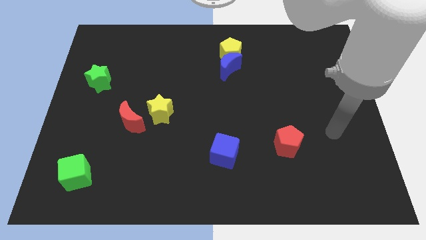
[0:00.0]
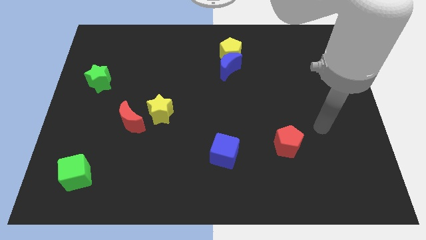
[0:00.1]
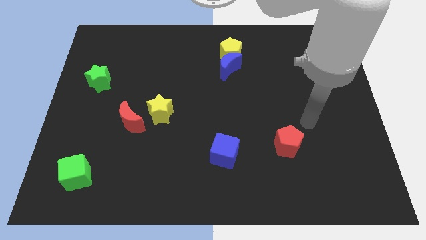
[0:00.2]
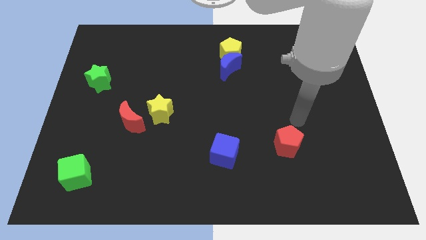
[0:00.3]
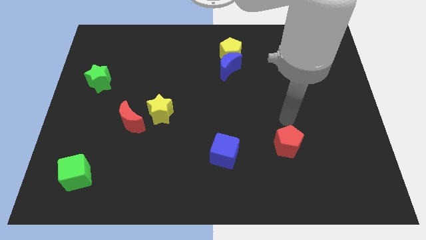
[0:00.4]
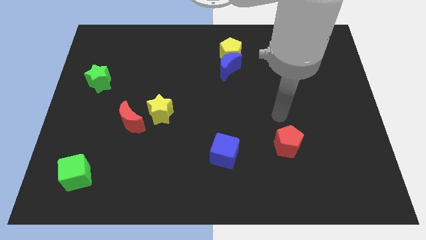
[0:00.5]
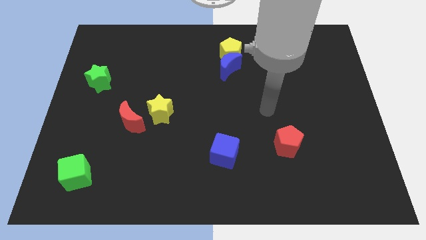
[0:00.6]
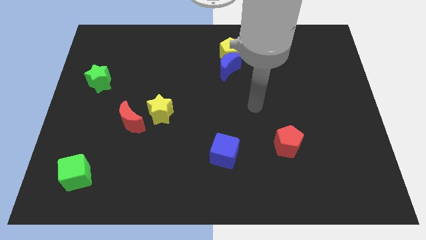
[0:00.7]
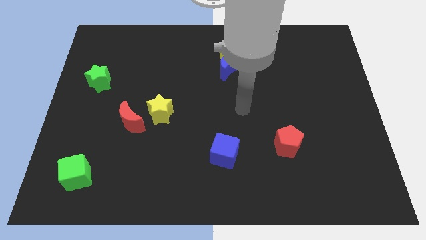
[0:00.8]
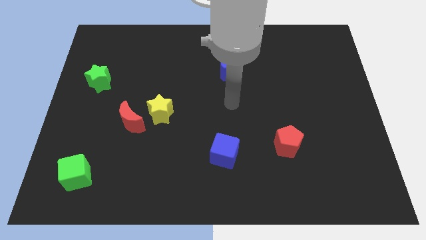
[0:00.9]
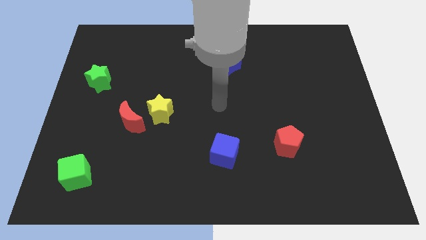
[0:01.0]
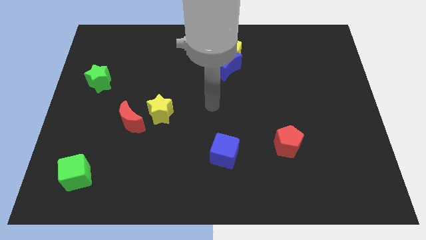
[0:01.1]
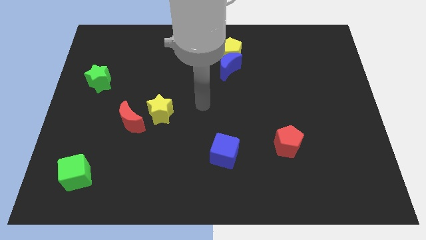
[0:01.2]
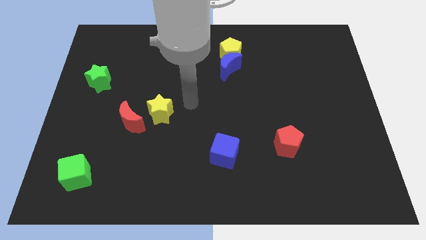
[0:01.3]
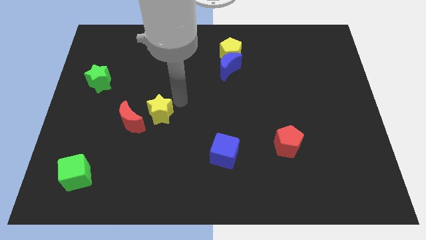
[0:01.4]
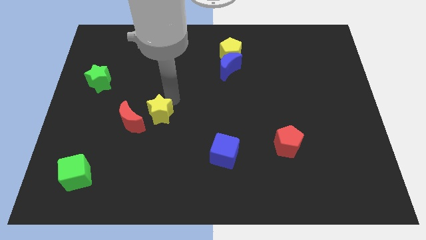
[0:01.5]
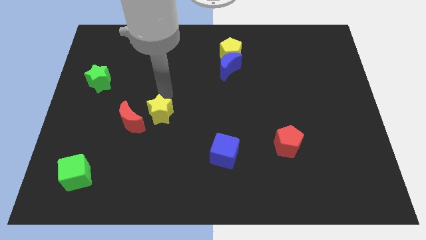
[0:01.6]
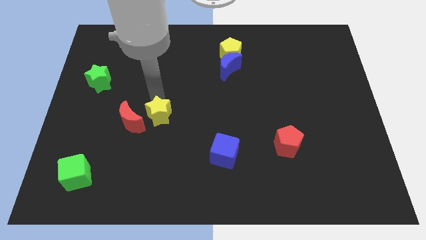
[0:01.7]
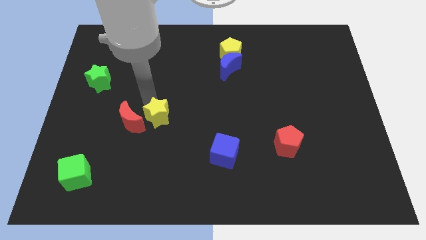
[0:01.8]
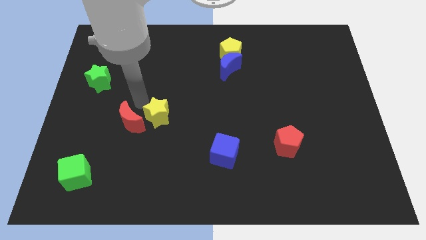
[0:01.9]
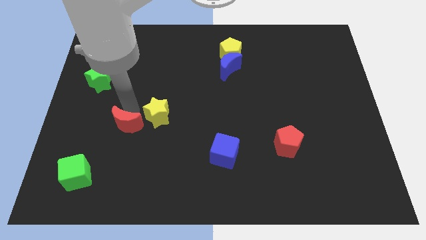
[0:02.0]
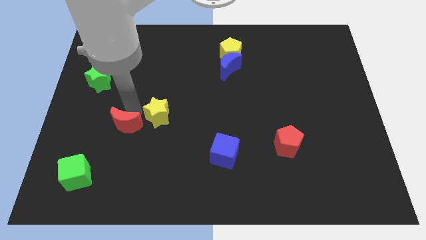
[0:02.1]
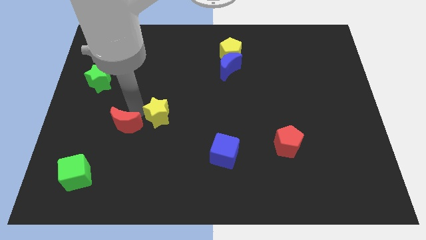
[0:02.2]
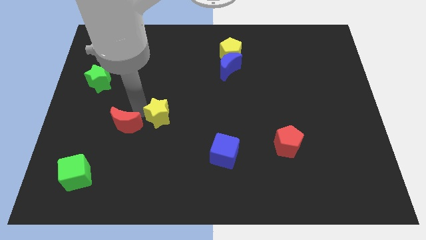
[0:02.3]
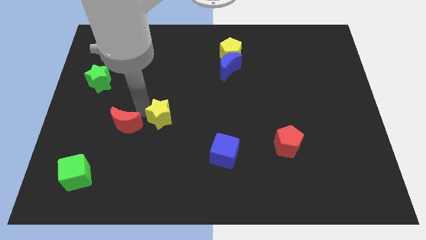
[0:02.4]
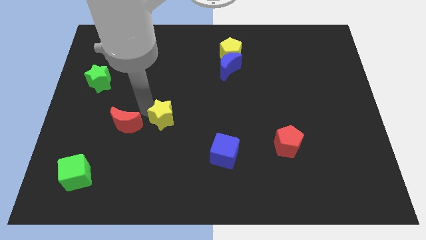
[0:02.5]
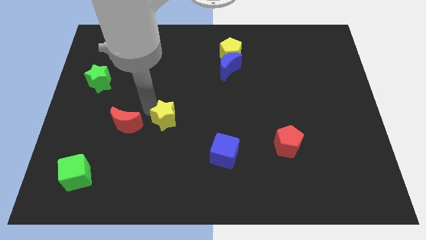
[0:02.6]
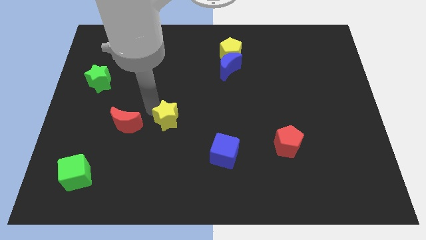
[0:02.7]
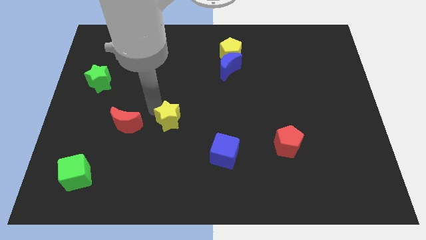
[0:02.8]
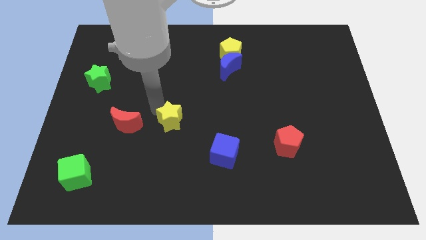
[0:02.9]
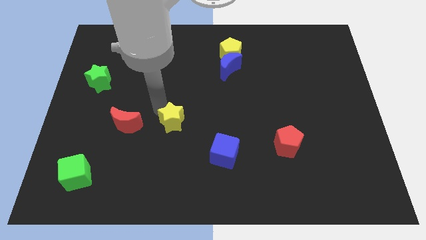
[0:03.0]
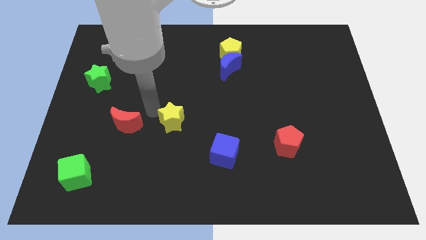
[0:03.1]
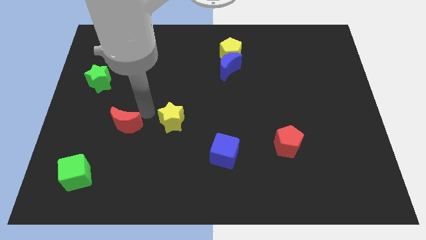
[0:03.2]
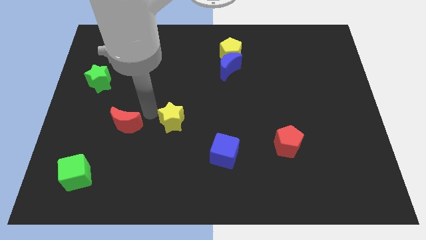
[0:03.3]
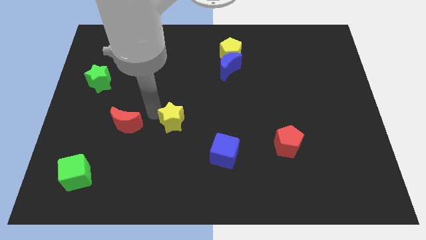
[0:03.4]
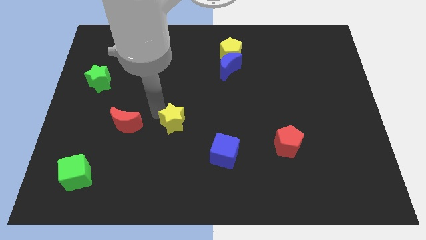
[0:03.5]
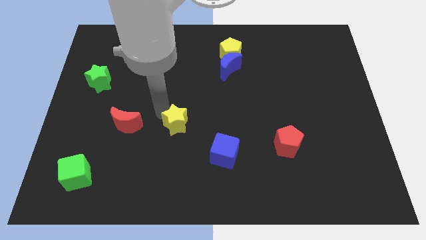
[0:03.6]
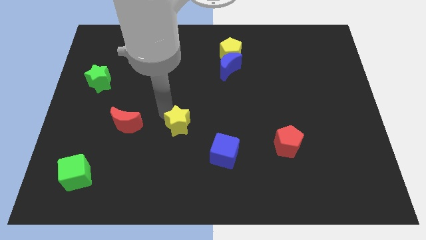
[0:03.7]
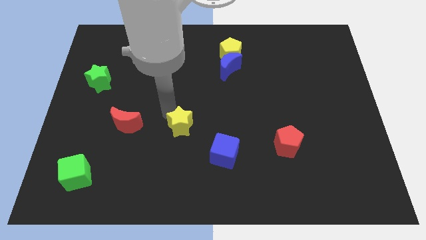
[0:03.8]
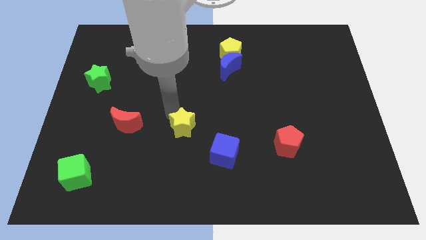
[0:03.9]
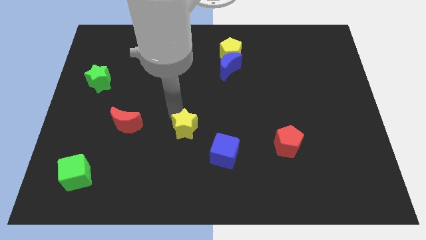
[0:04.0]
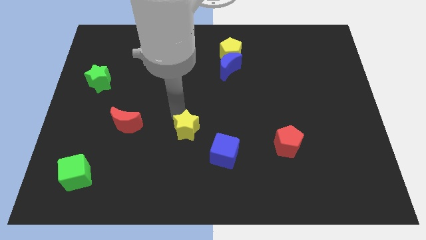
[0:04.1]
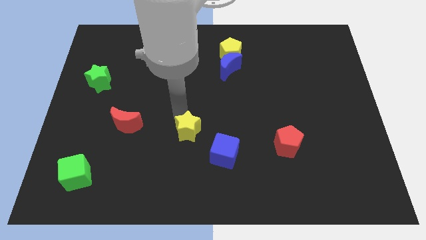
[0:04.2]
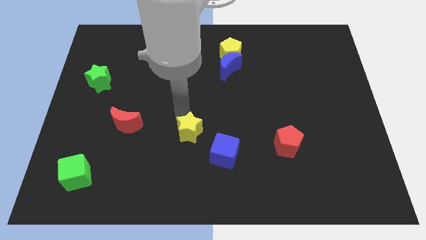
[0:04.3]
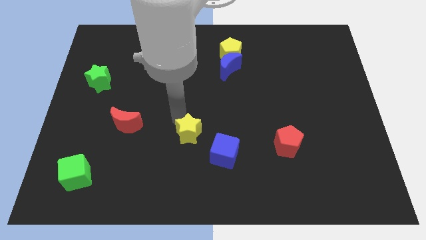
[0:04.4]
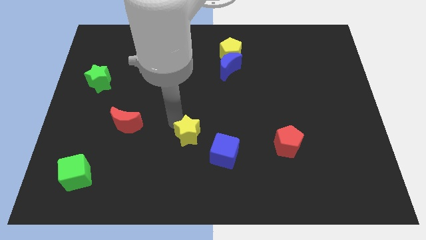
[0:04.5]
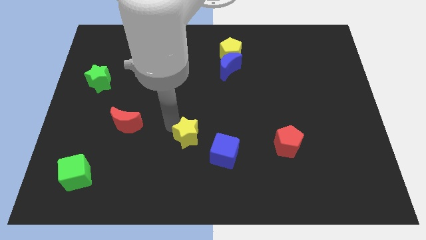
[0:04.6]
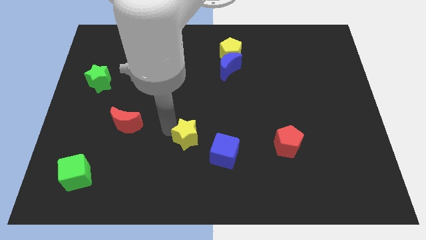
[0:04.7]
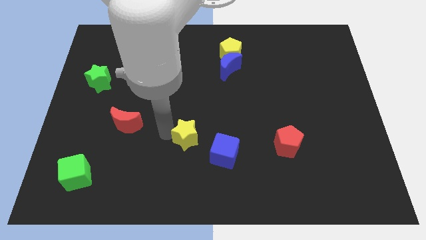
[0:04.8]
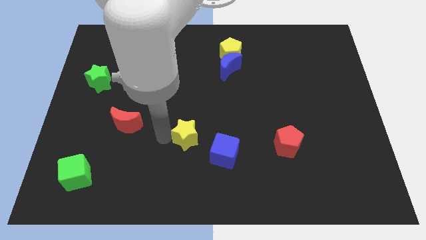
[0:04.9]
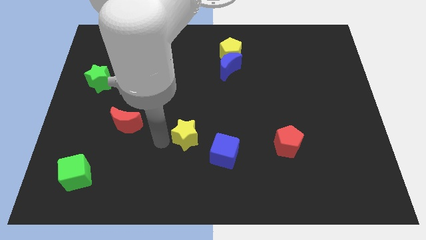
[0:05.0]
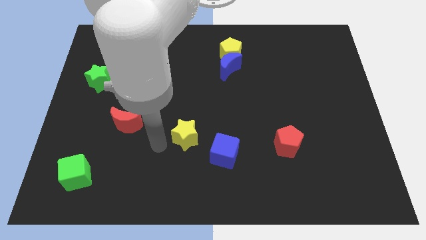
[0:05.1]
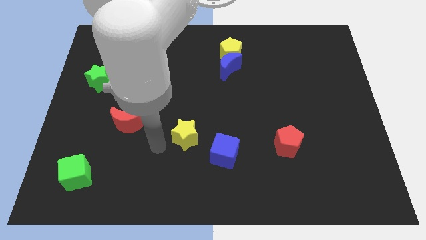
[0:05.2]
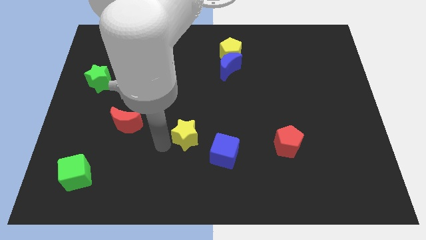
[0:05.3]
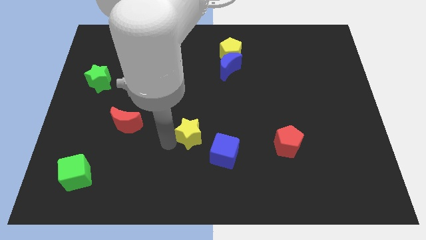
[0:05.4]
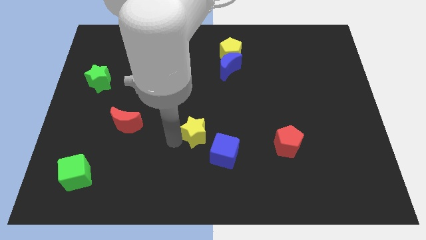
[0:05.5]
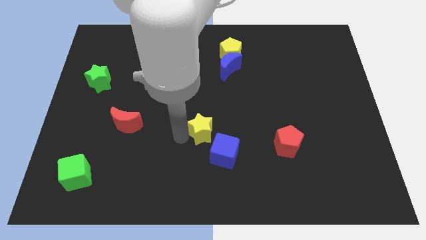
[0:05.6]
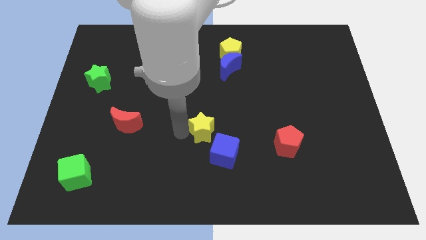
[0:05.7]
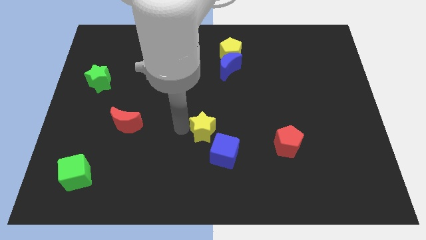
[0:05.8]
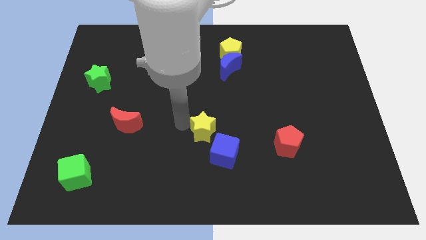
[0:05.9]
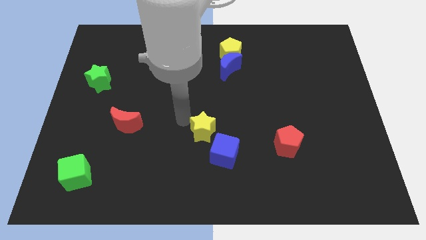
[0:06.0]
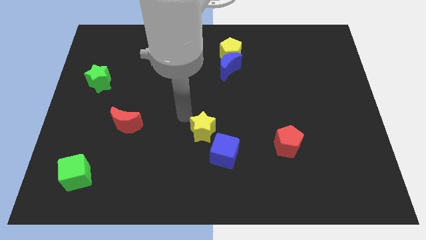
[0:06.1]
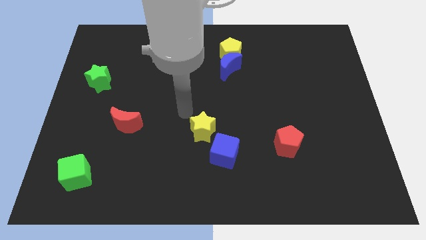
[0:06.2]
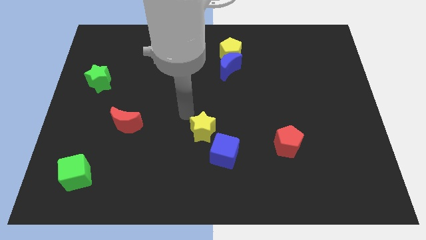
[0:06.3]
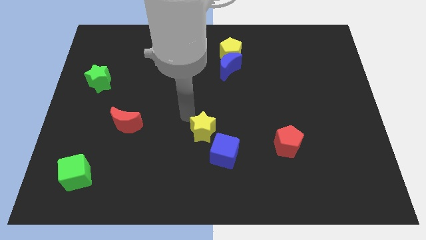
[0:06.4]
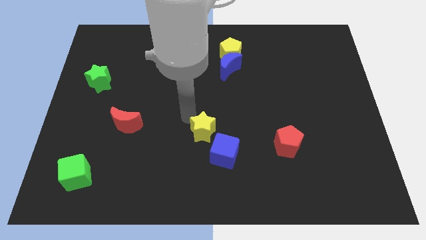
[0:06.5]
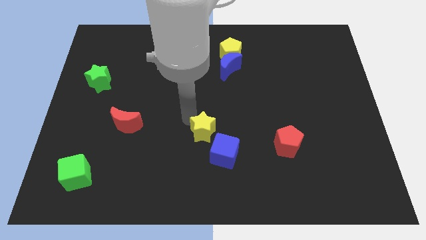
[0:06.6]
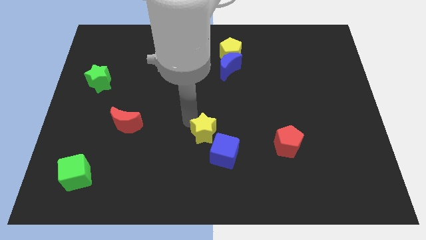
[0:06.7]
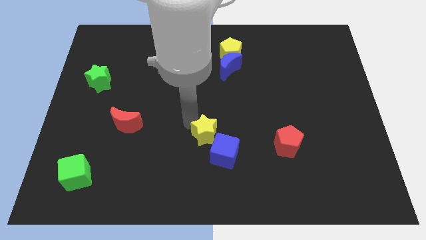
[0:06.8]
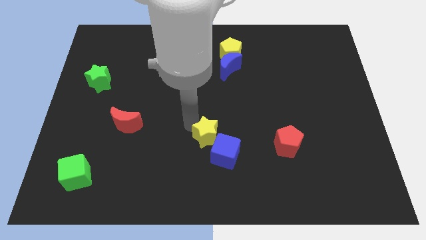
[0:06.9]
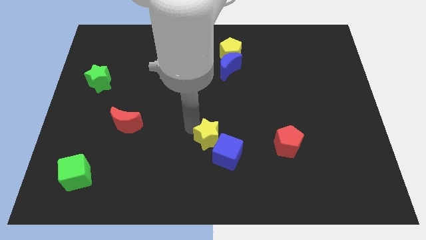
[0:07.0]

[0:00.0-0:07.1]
put the yellow star close to the blue cube
